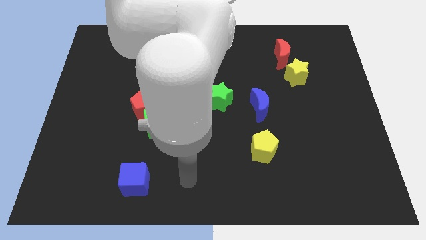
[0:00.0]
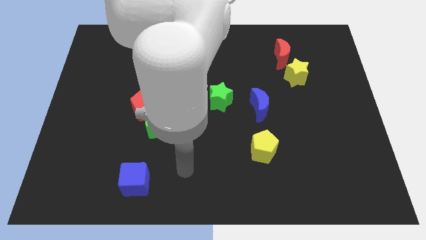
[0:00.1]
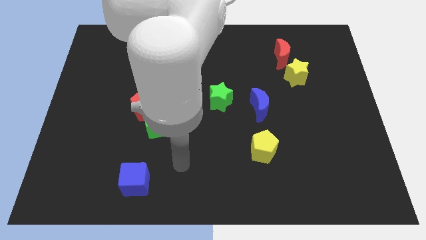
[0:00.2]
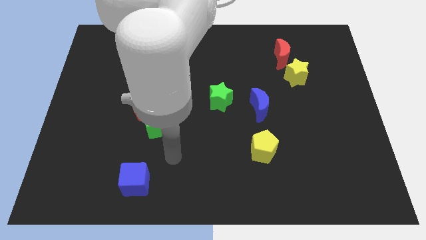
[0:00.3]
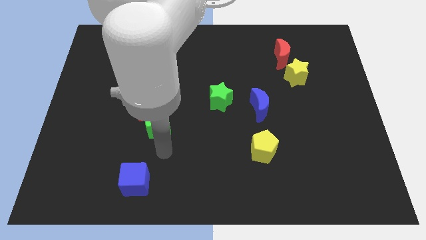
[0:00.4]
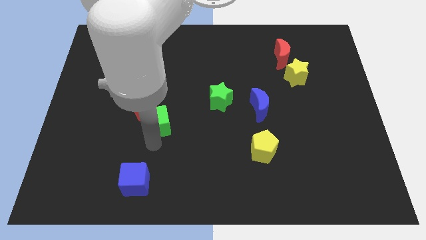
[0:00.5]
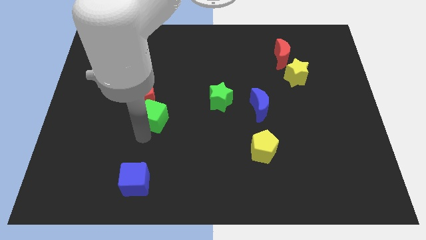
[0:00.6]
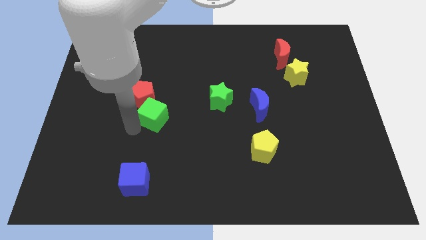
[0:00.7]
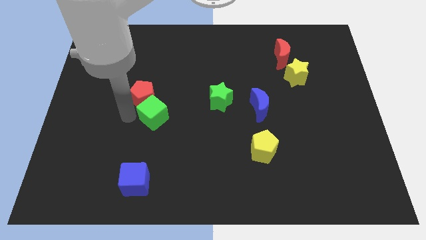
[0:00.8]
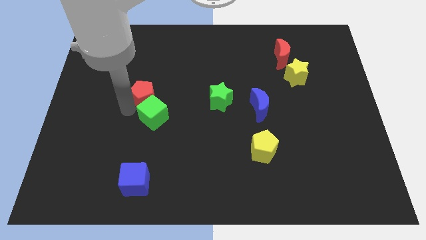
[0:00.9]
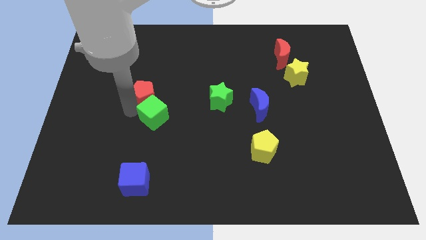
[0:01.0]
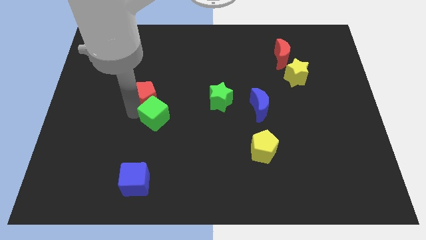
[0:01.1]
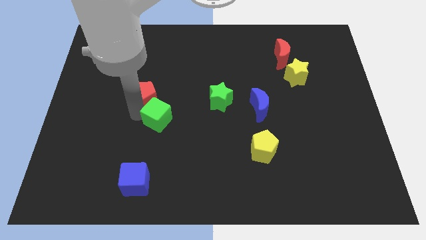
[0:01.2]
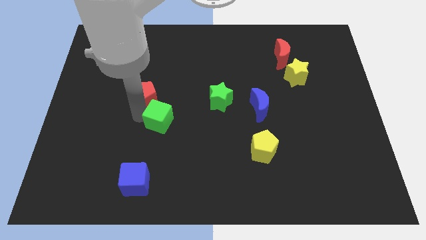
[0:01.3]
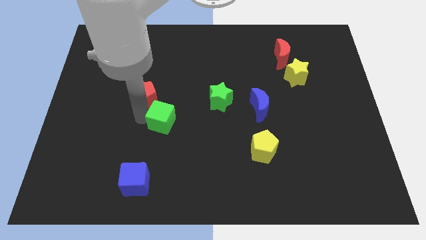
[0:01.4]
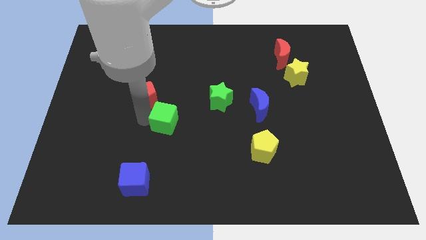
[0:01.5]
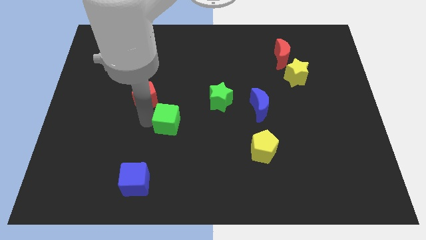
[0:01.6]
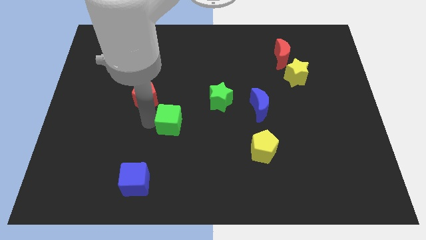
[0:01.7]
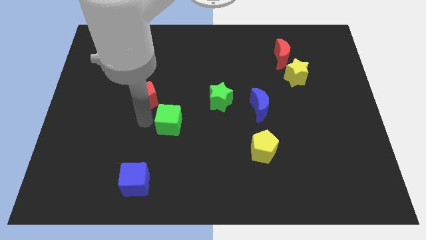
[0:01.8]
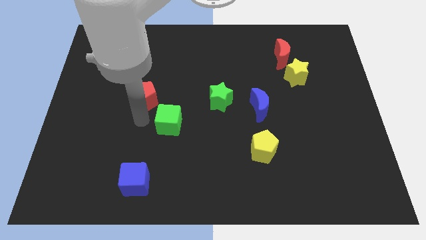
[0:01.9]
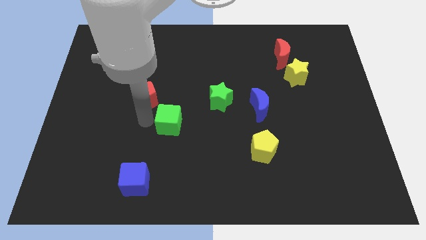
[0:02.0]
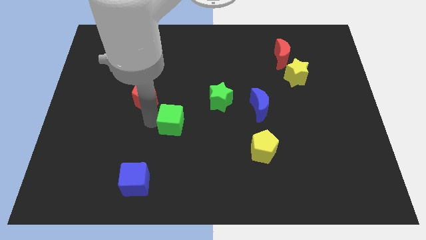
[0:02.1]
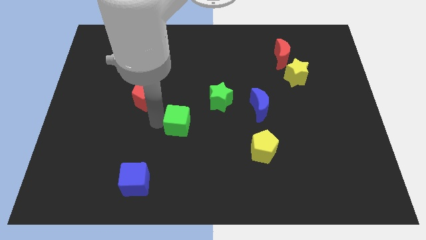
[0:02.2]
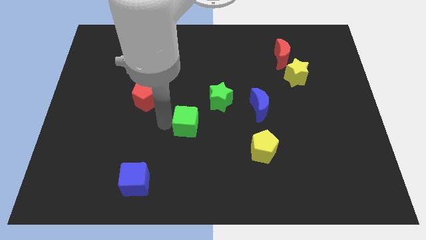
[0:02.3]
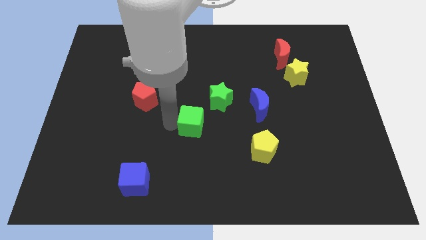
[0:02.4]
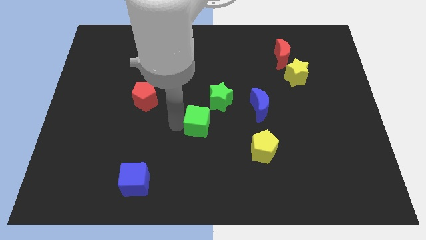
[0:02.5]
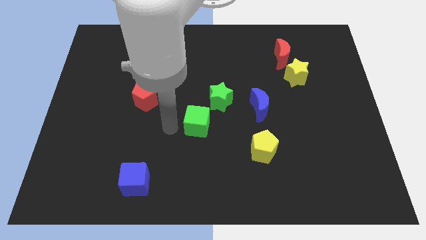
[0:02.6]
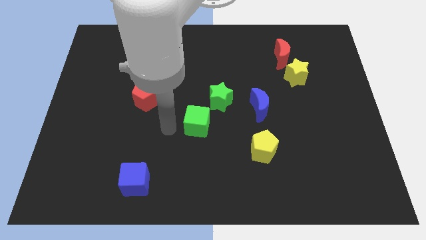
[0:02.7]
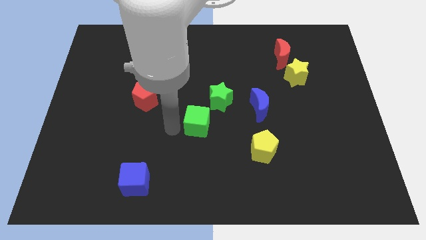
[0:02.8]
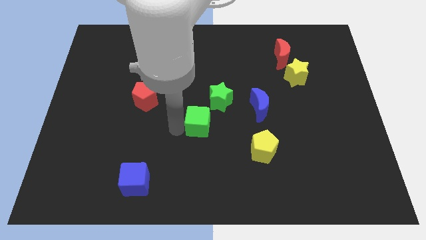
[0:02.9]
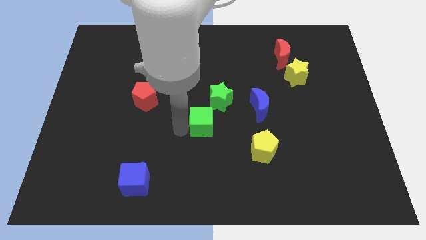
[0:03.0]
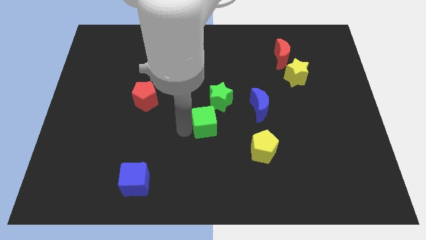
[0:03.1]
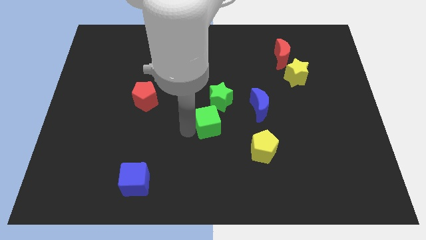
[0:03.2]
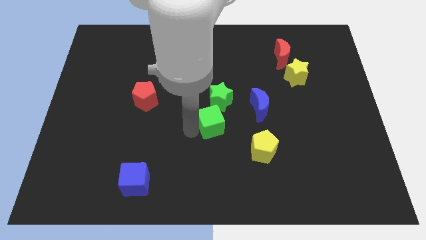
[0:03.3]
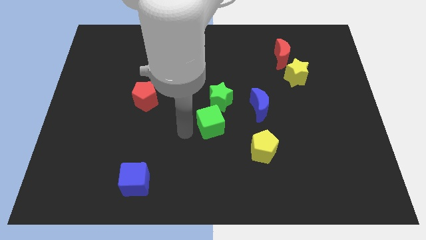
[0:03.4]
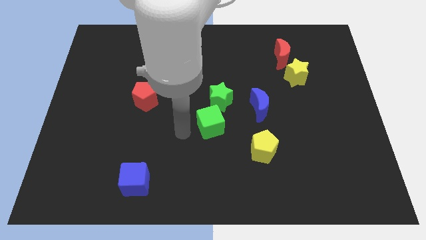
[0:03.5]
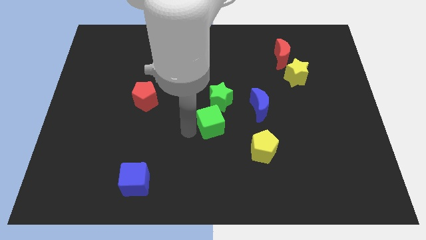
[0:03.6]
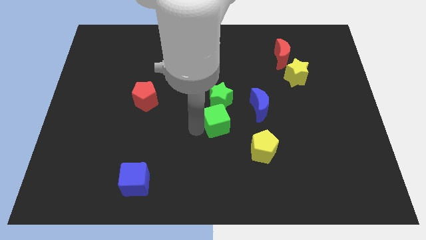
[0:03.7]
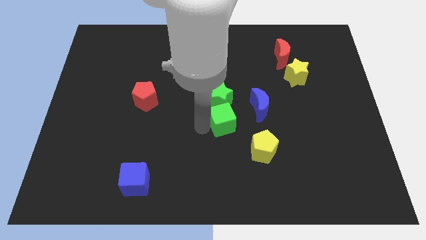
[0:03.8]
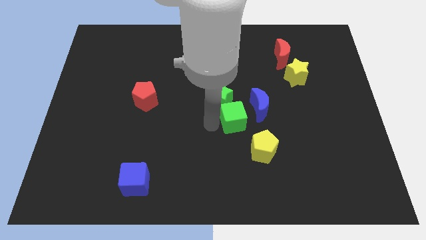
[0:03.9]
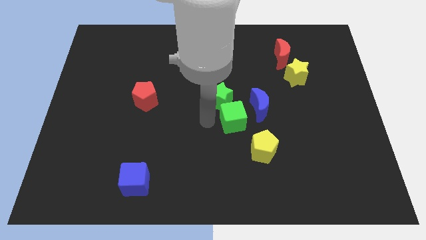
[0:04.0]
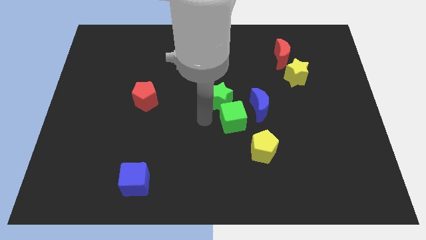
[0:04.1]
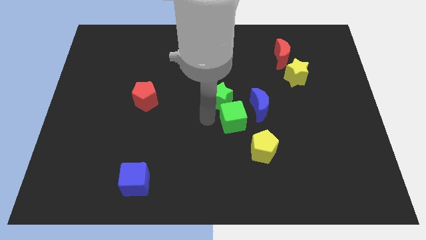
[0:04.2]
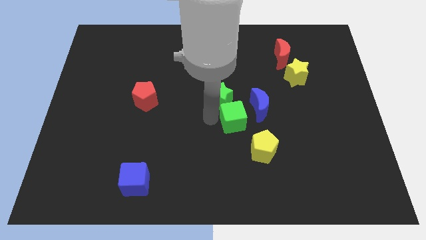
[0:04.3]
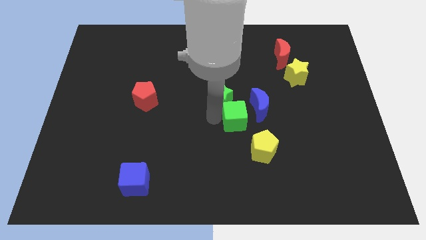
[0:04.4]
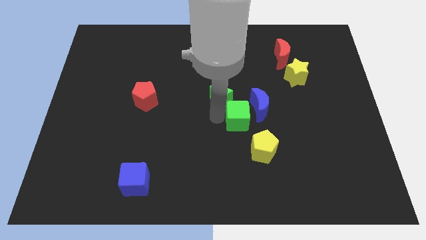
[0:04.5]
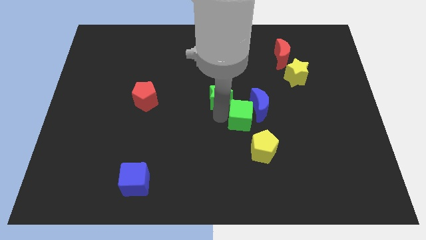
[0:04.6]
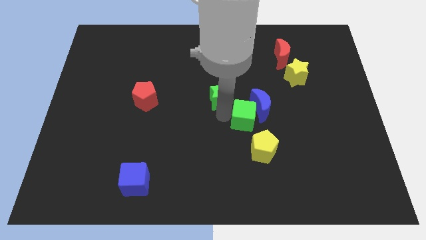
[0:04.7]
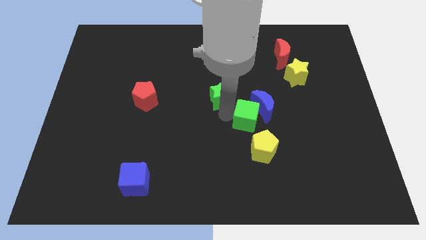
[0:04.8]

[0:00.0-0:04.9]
push the green cube to the right

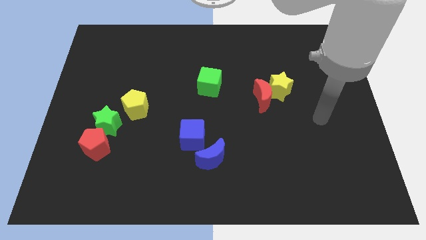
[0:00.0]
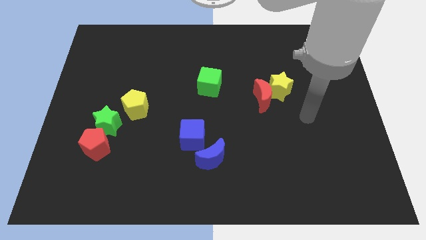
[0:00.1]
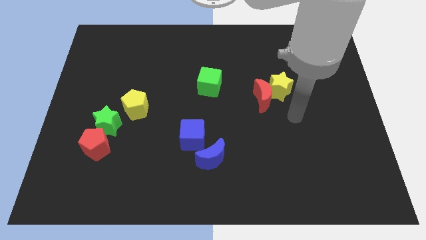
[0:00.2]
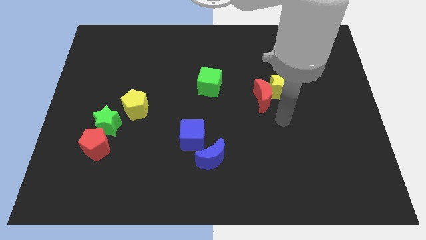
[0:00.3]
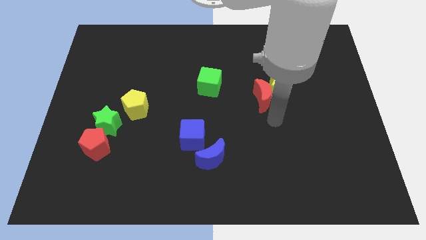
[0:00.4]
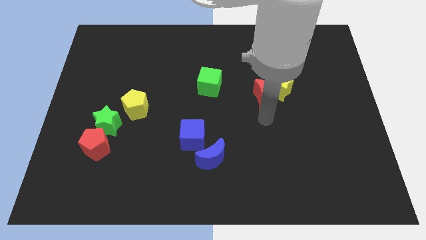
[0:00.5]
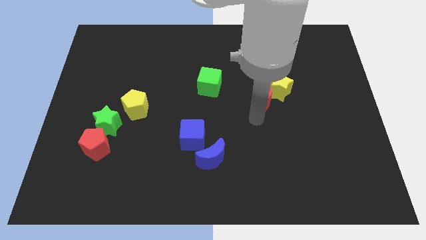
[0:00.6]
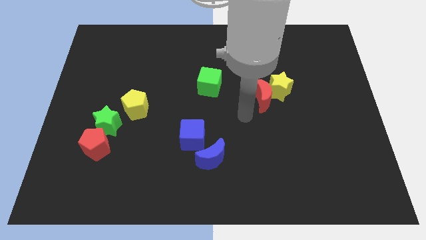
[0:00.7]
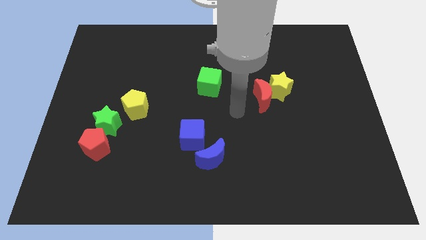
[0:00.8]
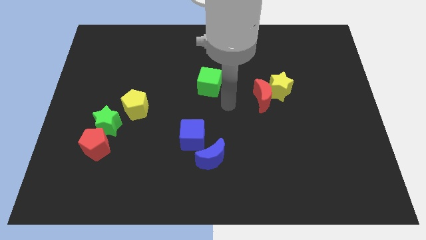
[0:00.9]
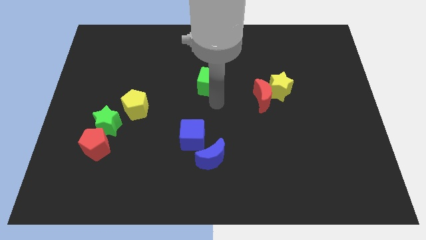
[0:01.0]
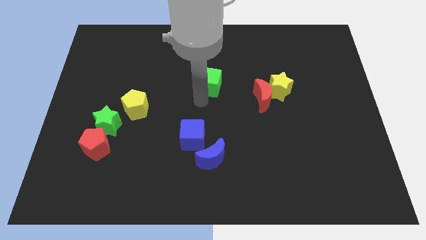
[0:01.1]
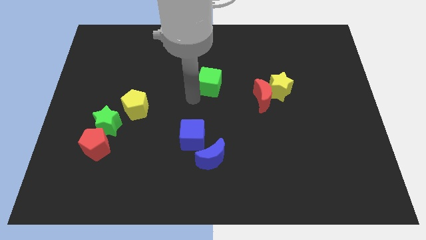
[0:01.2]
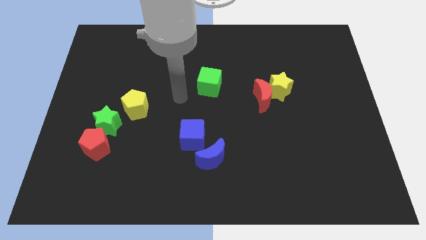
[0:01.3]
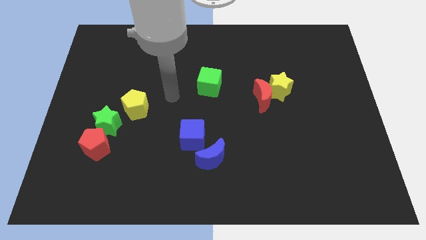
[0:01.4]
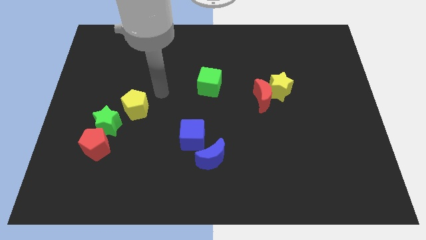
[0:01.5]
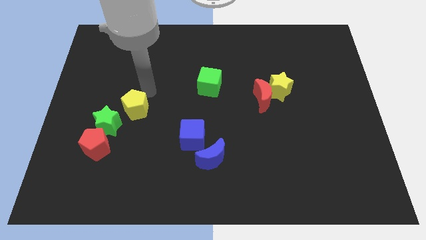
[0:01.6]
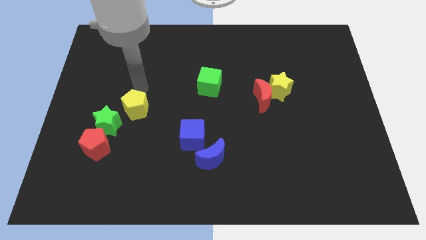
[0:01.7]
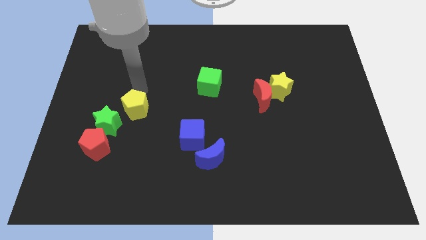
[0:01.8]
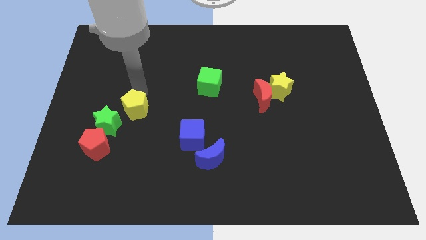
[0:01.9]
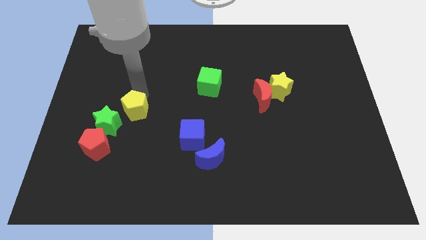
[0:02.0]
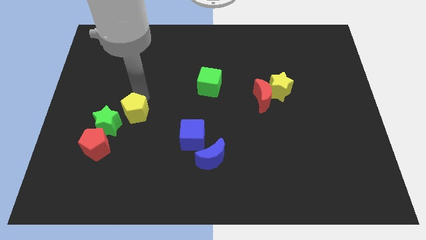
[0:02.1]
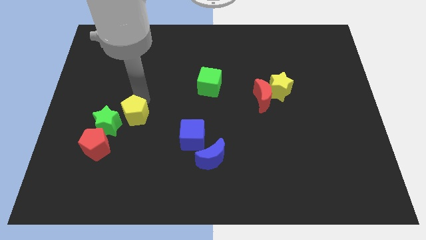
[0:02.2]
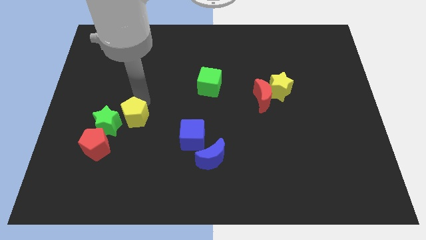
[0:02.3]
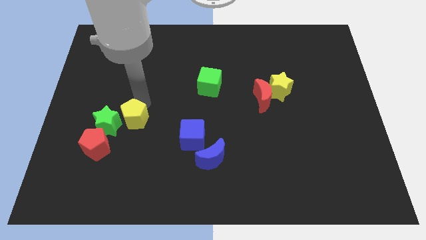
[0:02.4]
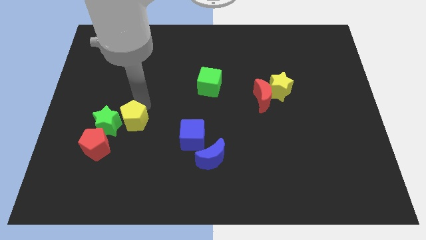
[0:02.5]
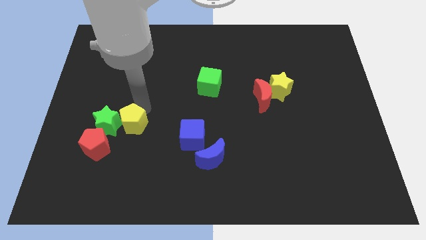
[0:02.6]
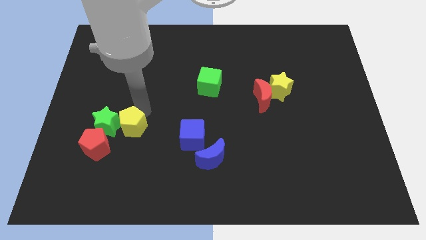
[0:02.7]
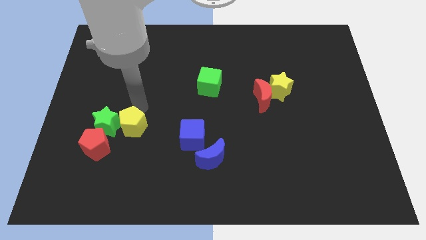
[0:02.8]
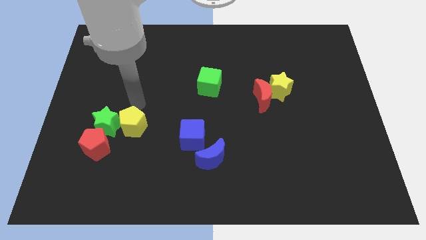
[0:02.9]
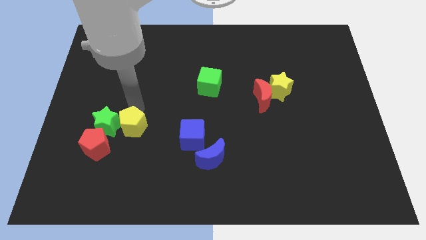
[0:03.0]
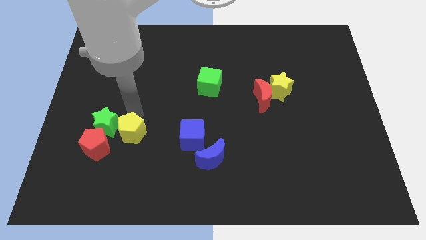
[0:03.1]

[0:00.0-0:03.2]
slide the yellow pentagon down a little bit
